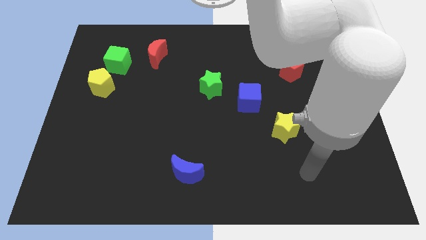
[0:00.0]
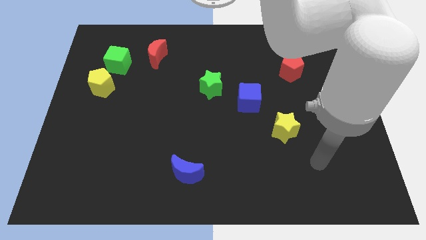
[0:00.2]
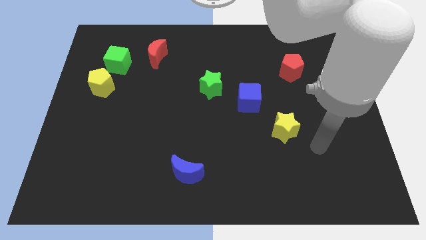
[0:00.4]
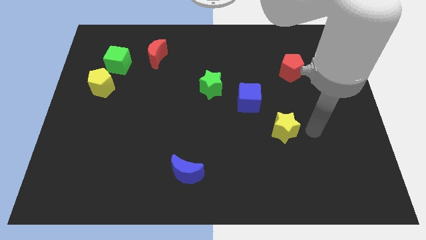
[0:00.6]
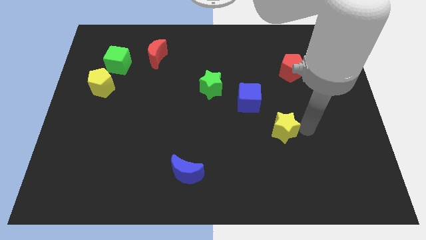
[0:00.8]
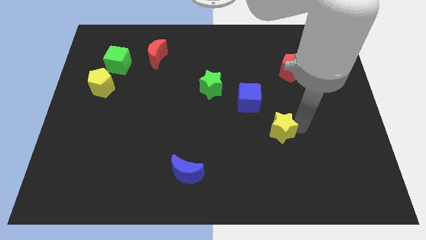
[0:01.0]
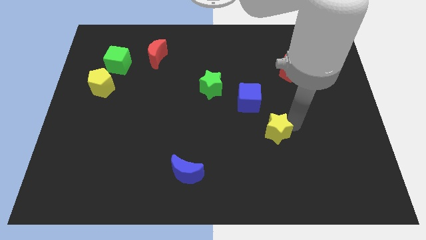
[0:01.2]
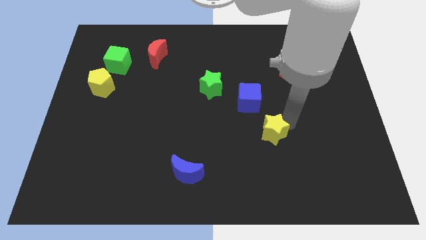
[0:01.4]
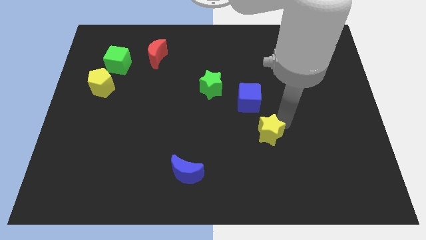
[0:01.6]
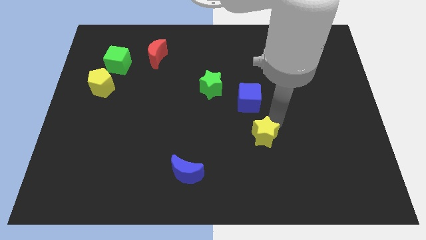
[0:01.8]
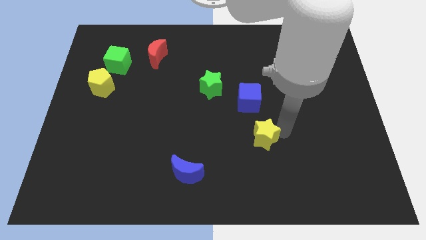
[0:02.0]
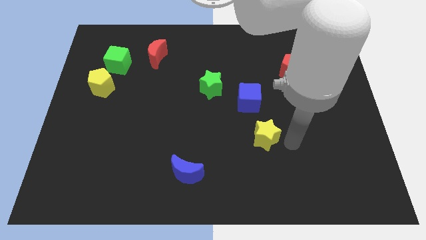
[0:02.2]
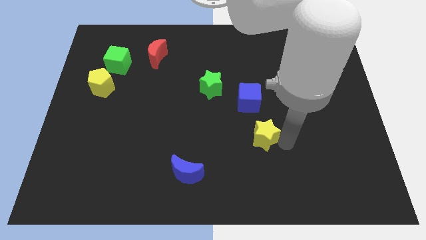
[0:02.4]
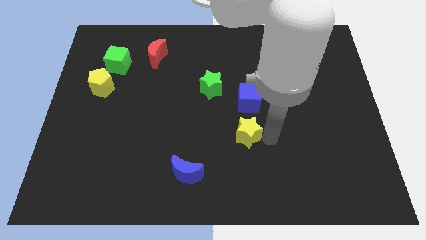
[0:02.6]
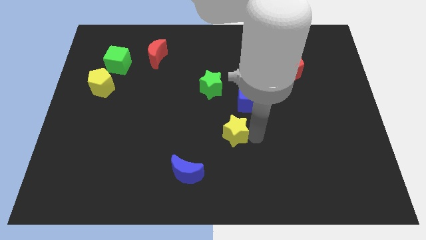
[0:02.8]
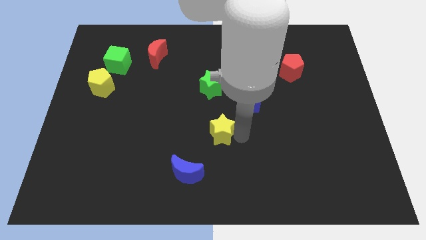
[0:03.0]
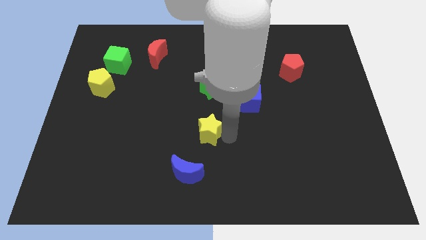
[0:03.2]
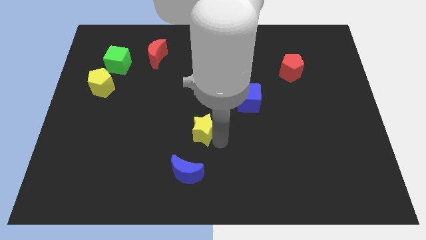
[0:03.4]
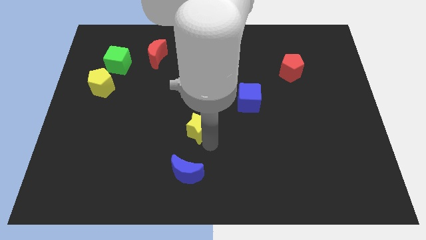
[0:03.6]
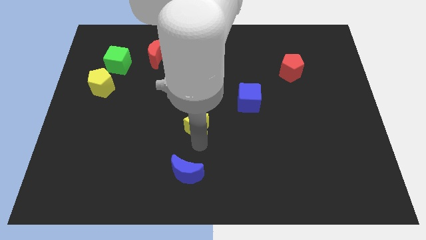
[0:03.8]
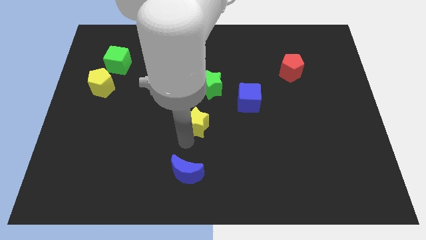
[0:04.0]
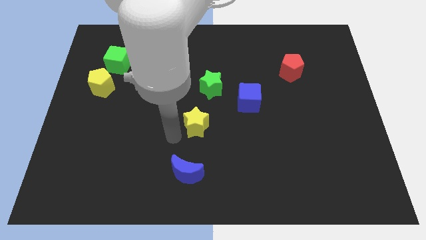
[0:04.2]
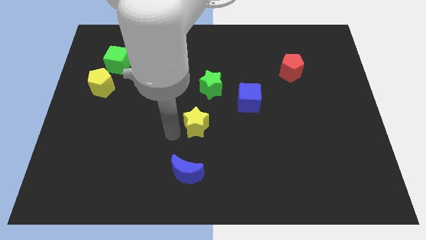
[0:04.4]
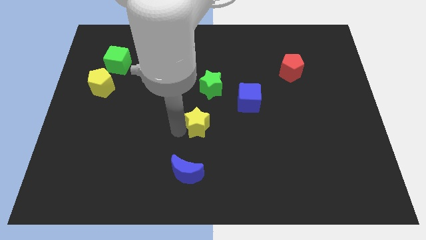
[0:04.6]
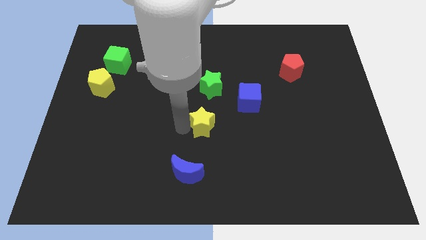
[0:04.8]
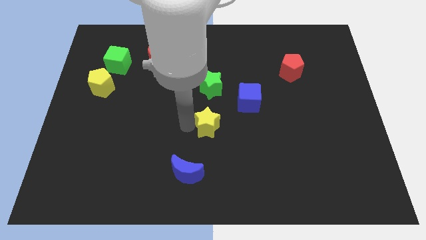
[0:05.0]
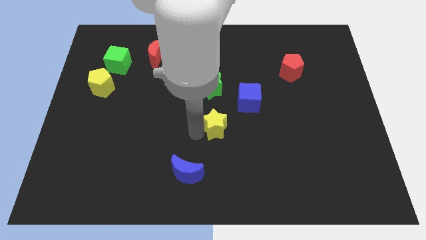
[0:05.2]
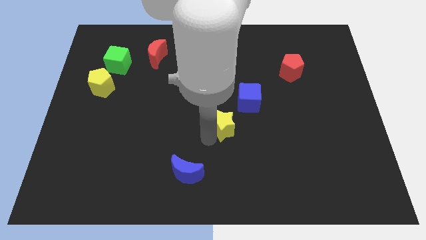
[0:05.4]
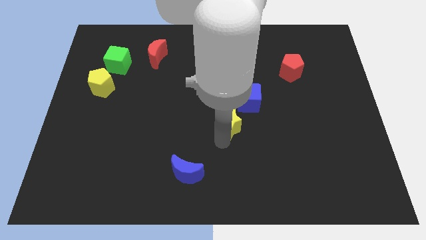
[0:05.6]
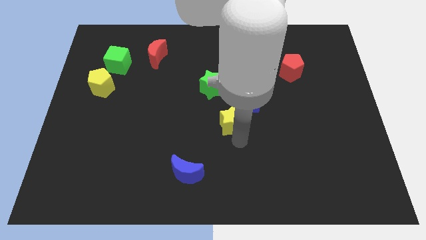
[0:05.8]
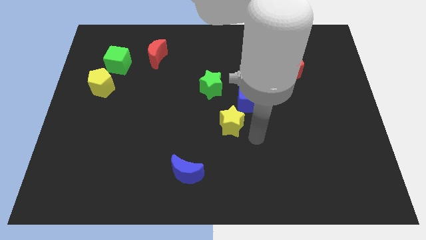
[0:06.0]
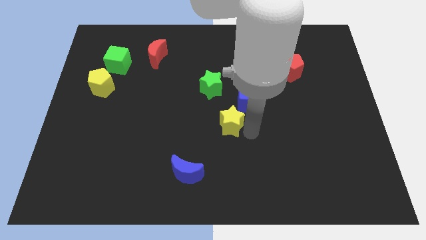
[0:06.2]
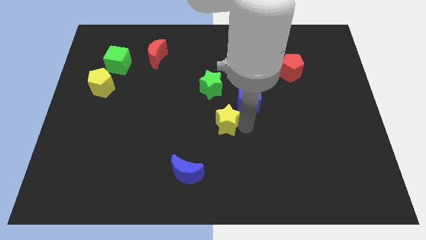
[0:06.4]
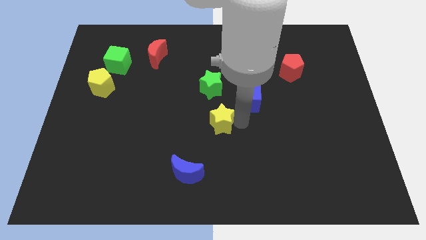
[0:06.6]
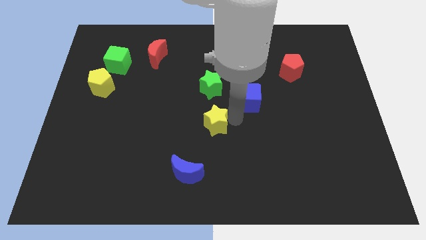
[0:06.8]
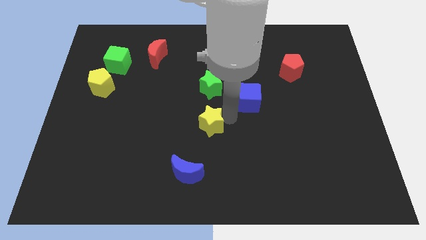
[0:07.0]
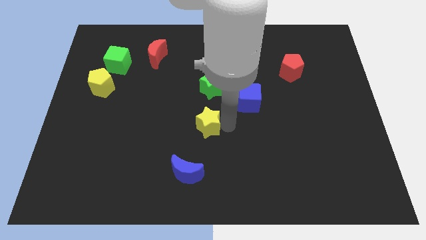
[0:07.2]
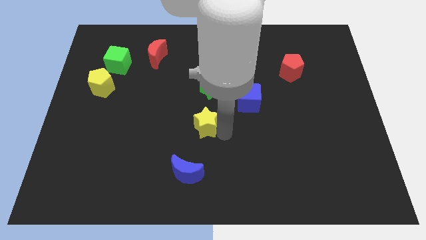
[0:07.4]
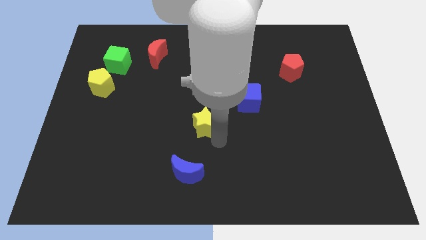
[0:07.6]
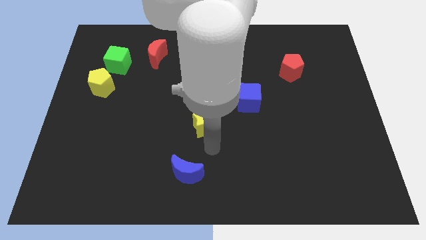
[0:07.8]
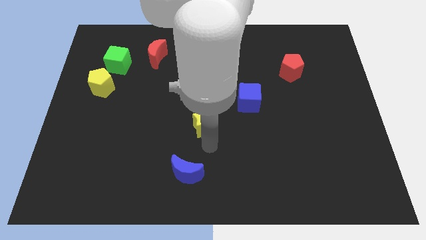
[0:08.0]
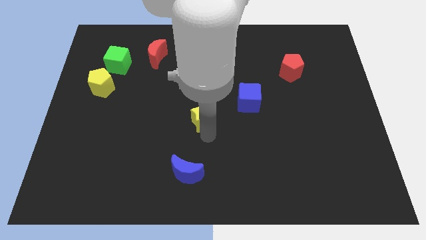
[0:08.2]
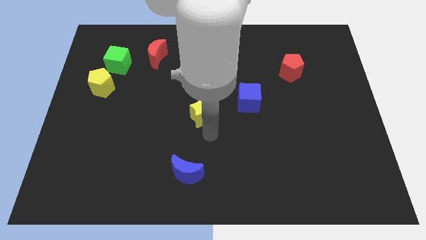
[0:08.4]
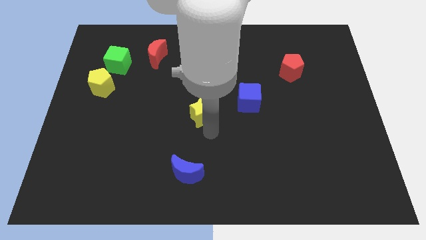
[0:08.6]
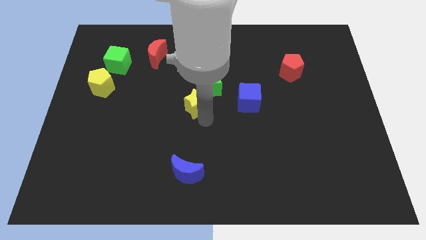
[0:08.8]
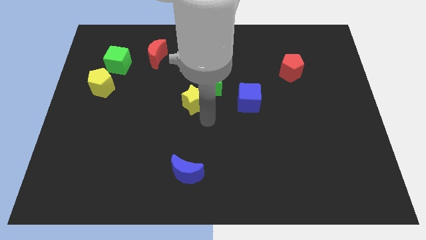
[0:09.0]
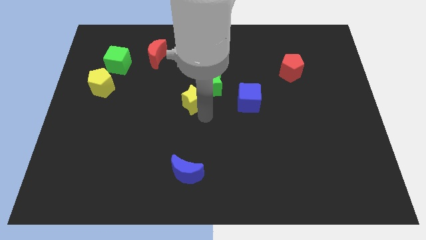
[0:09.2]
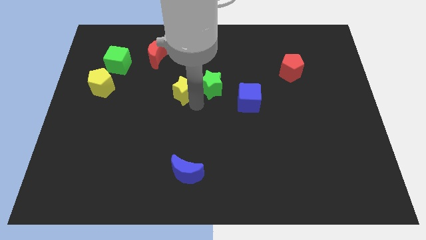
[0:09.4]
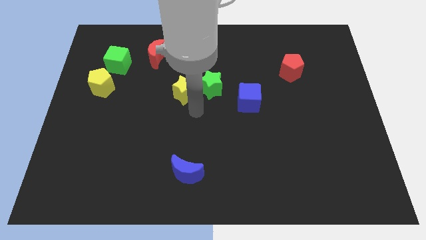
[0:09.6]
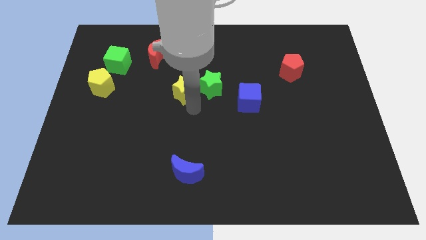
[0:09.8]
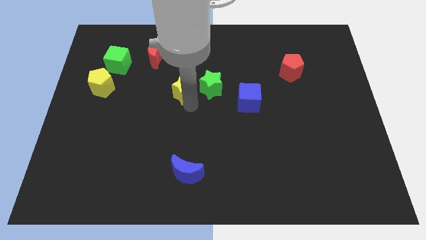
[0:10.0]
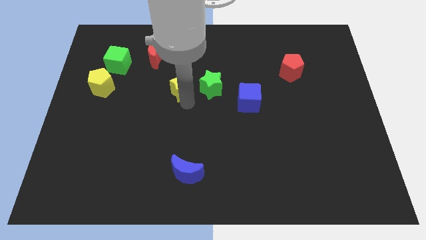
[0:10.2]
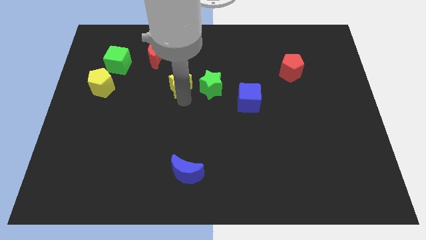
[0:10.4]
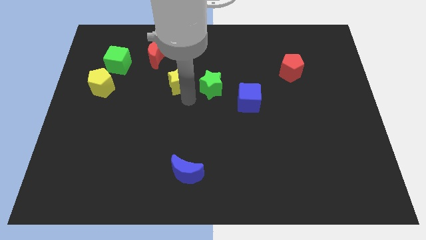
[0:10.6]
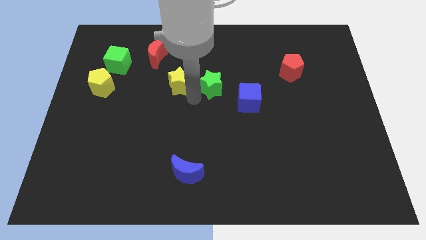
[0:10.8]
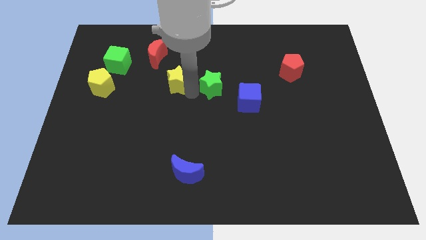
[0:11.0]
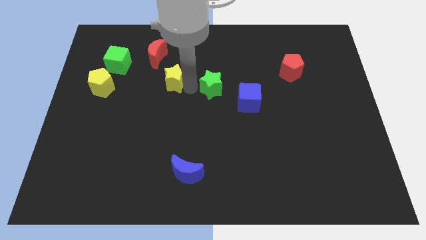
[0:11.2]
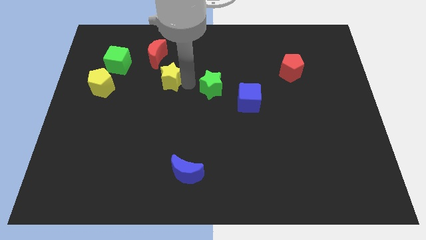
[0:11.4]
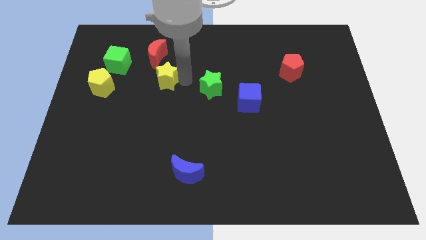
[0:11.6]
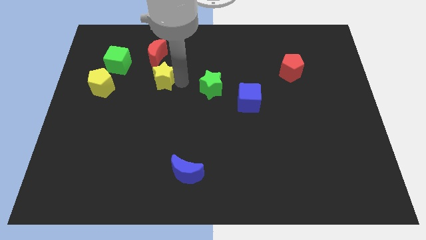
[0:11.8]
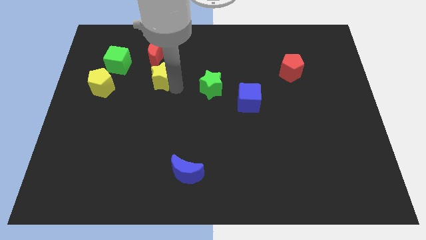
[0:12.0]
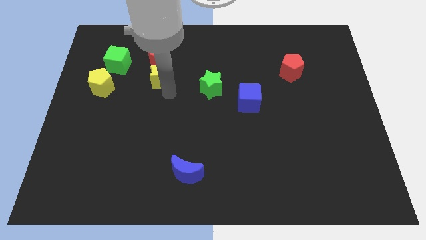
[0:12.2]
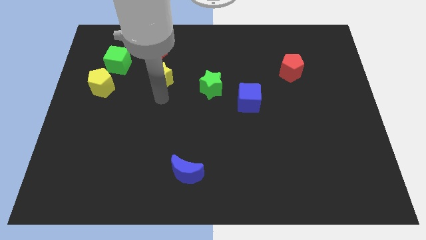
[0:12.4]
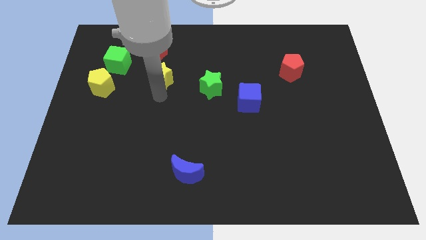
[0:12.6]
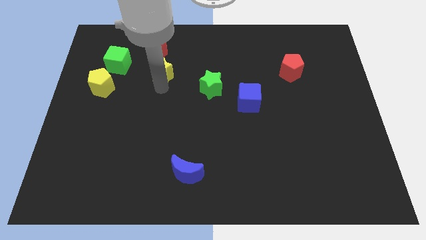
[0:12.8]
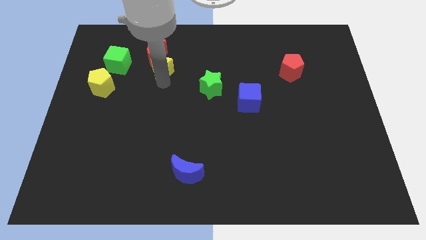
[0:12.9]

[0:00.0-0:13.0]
push the yellow star towards the red moon

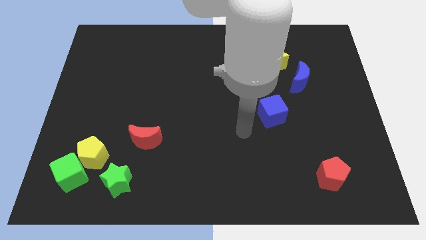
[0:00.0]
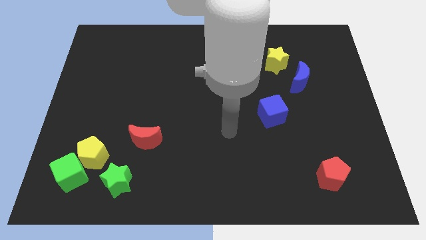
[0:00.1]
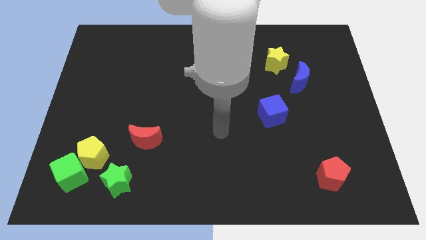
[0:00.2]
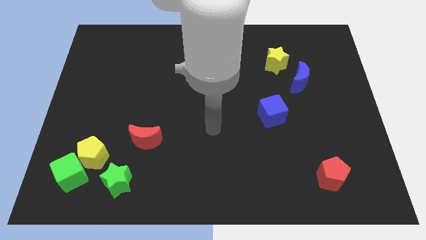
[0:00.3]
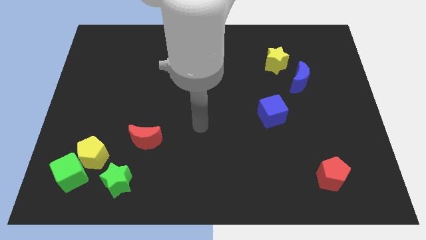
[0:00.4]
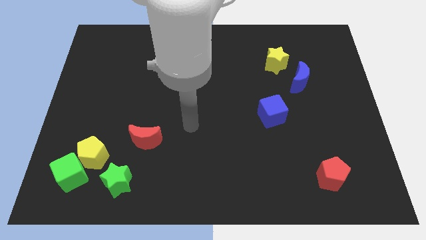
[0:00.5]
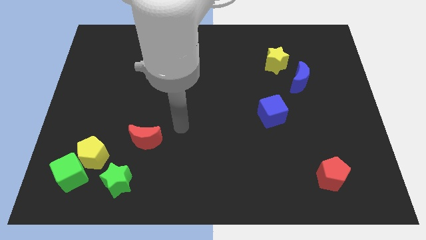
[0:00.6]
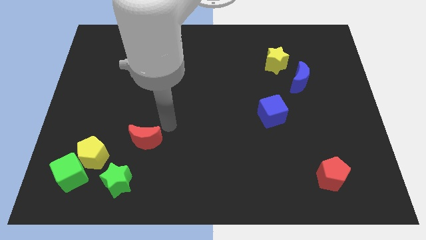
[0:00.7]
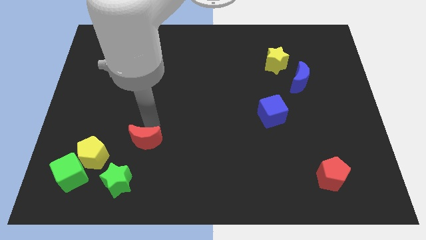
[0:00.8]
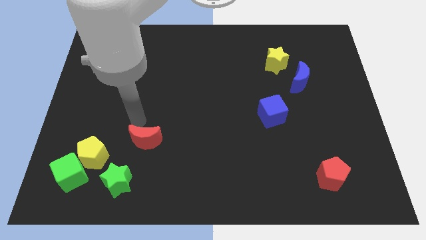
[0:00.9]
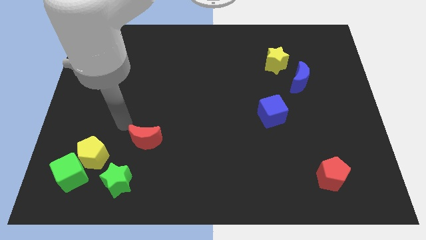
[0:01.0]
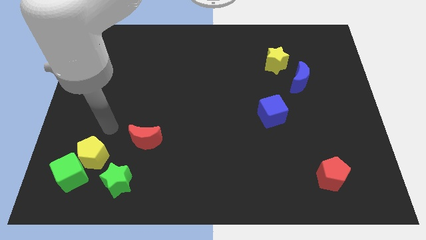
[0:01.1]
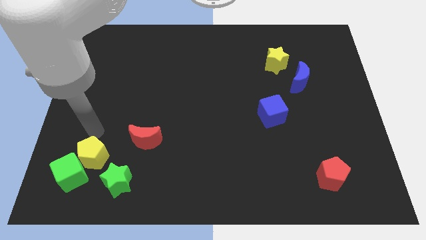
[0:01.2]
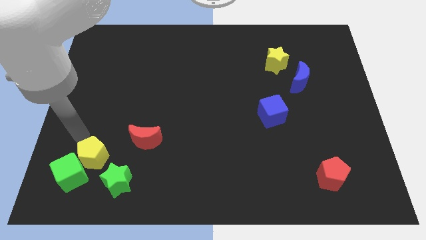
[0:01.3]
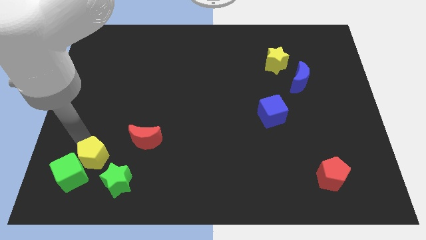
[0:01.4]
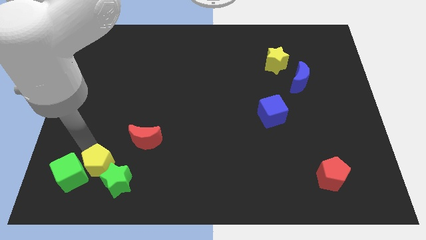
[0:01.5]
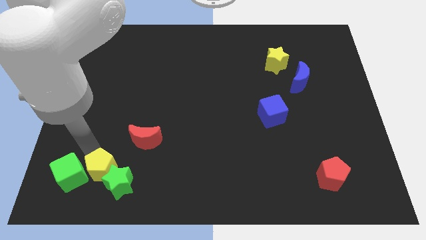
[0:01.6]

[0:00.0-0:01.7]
slide the yellow pentagon to the green star
